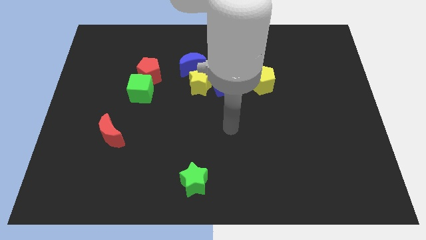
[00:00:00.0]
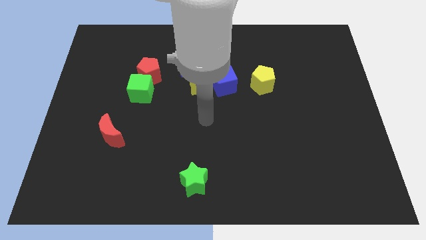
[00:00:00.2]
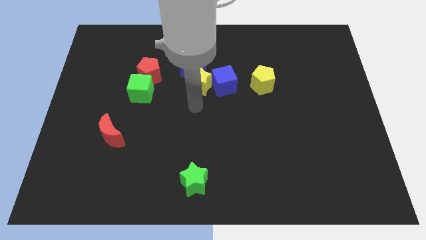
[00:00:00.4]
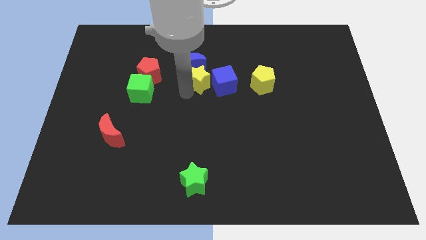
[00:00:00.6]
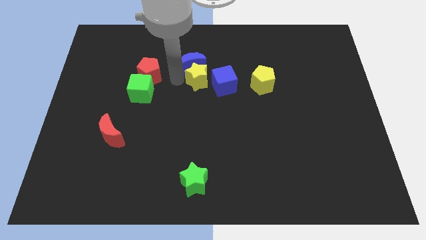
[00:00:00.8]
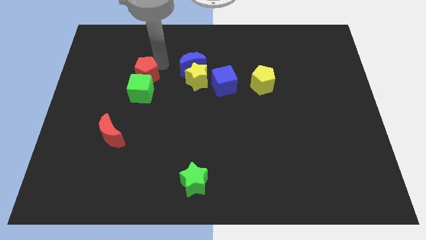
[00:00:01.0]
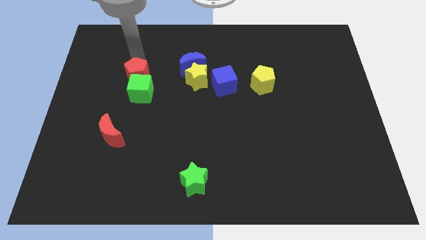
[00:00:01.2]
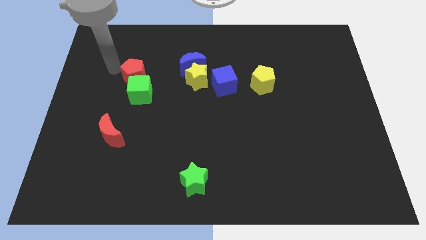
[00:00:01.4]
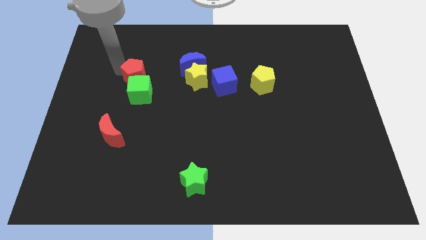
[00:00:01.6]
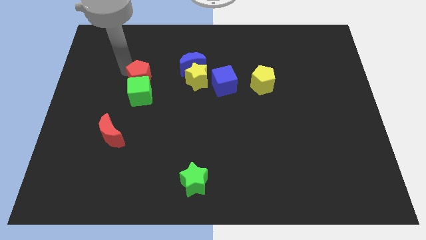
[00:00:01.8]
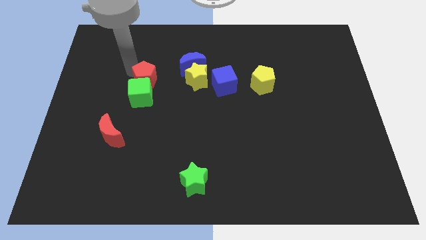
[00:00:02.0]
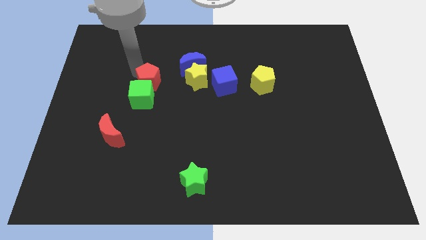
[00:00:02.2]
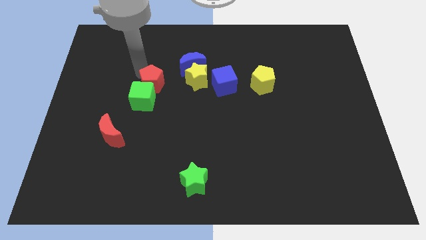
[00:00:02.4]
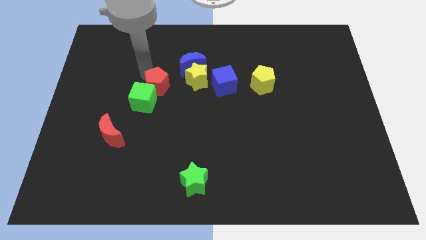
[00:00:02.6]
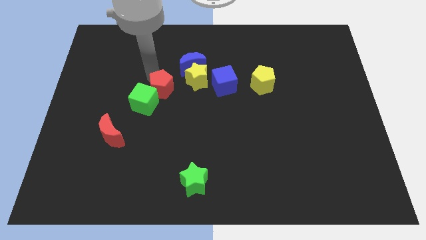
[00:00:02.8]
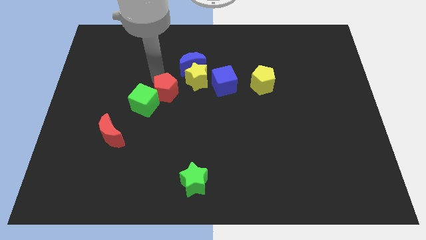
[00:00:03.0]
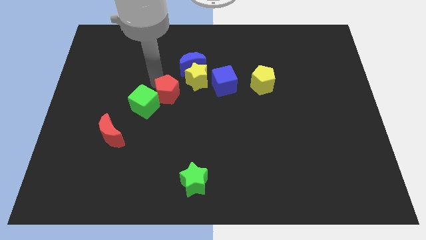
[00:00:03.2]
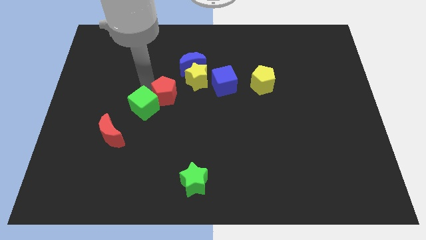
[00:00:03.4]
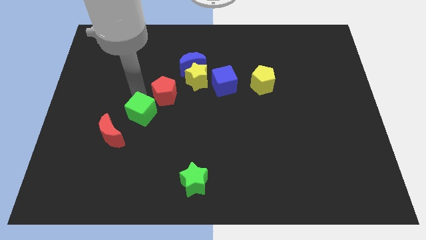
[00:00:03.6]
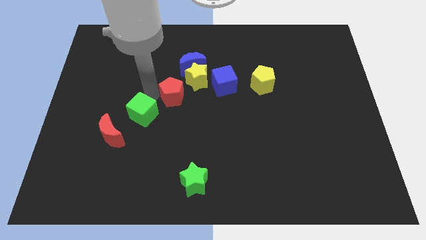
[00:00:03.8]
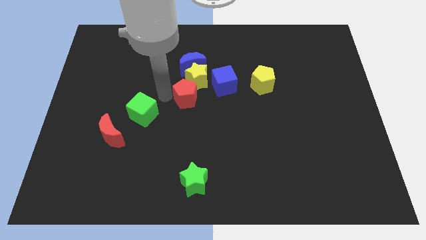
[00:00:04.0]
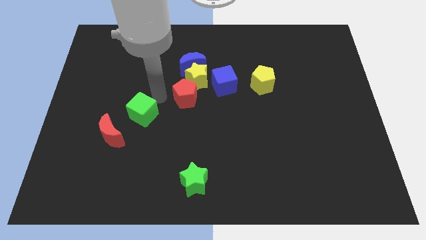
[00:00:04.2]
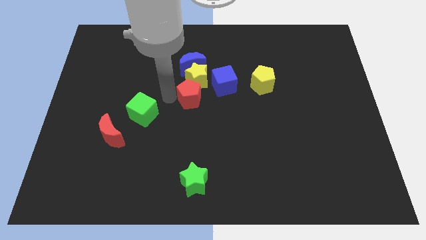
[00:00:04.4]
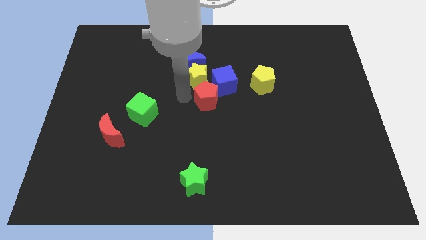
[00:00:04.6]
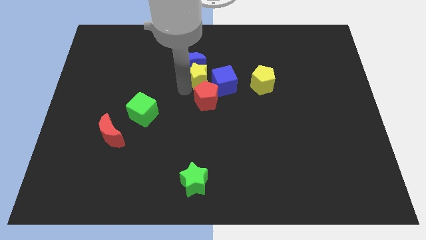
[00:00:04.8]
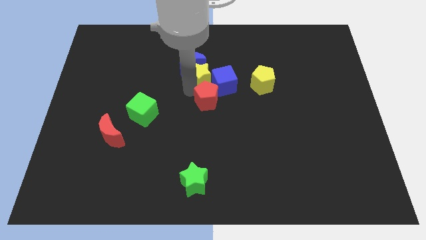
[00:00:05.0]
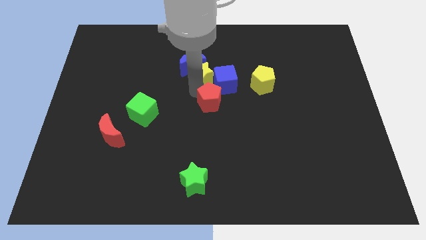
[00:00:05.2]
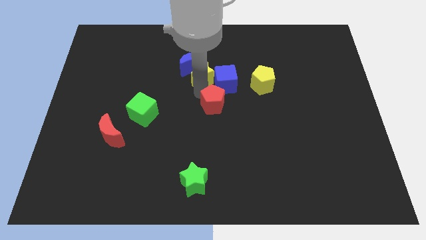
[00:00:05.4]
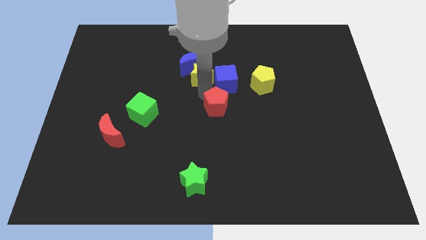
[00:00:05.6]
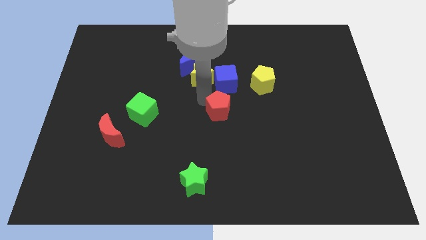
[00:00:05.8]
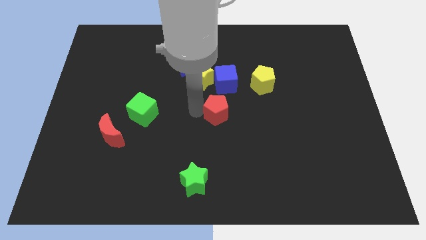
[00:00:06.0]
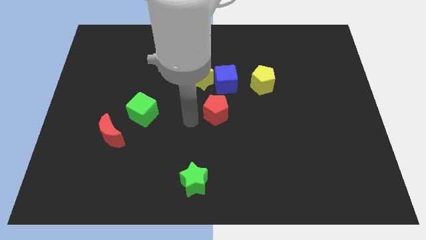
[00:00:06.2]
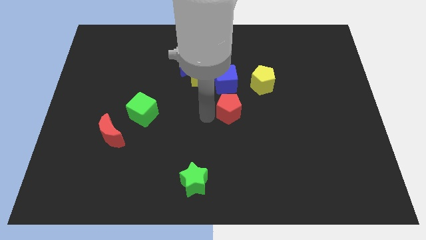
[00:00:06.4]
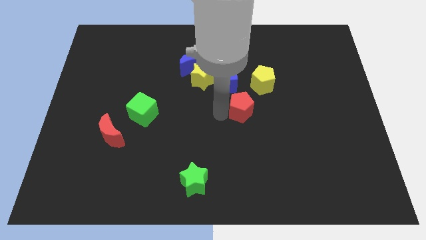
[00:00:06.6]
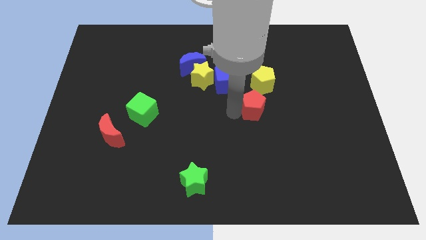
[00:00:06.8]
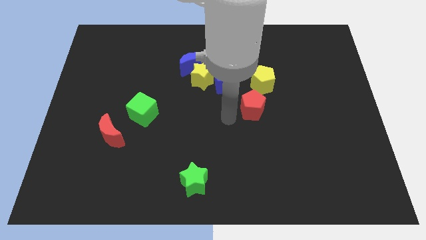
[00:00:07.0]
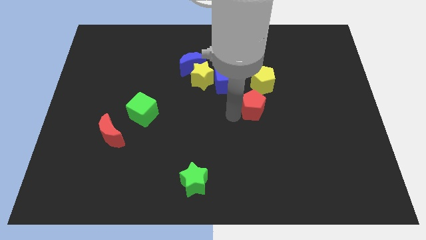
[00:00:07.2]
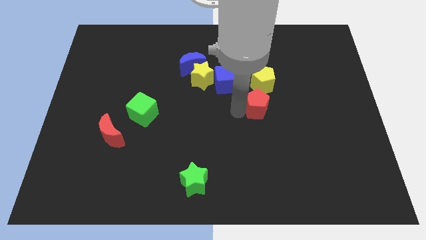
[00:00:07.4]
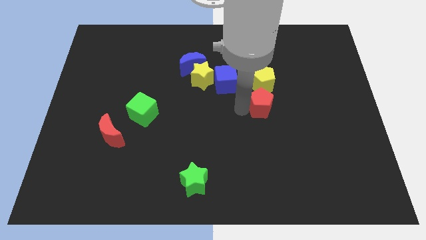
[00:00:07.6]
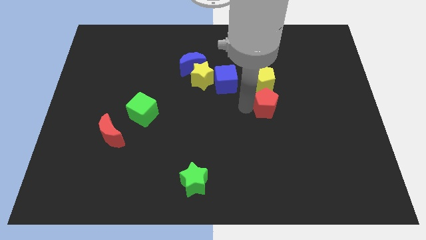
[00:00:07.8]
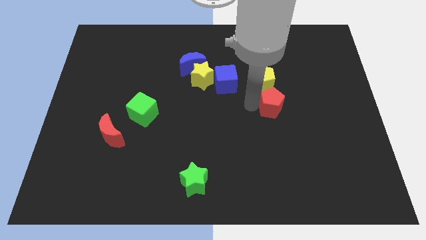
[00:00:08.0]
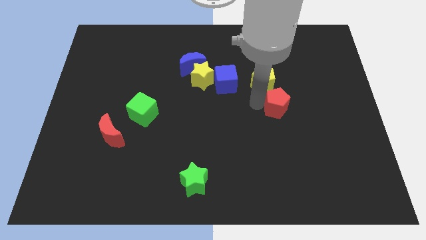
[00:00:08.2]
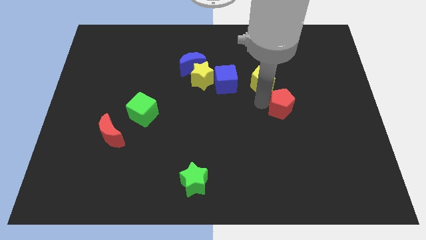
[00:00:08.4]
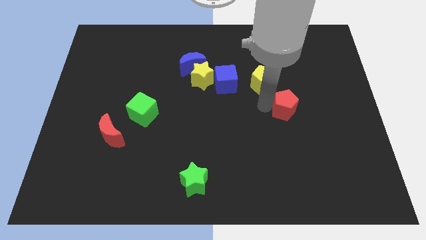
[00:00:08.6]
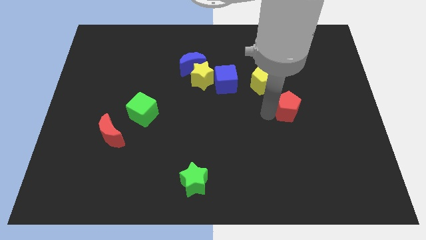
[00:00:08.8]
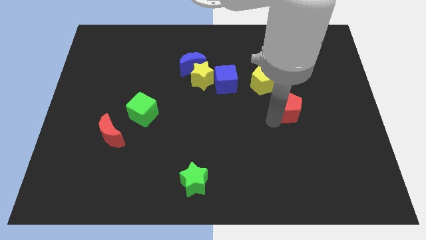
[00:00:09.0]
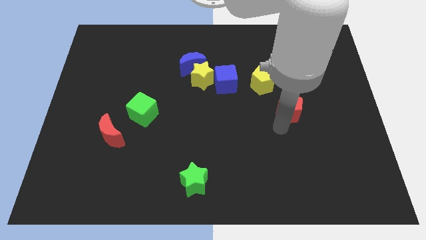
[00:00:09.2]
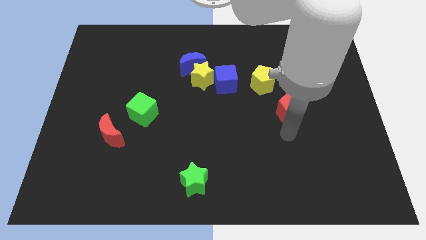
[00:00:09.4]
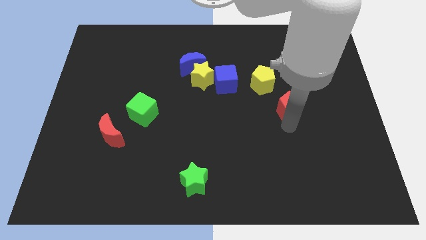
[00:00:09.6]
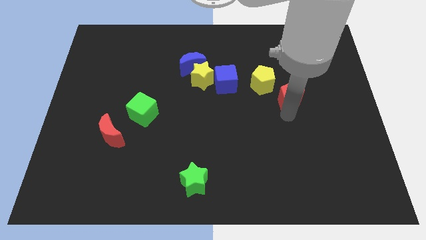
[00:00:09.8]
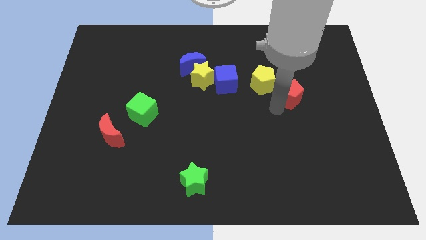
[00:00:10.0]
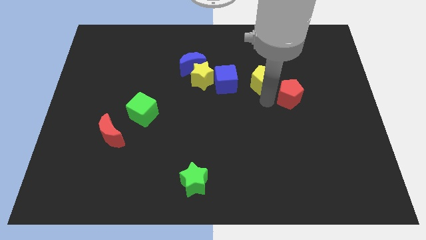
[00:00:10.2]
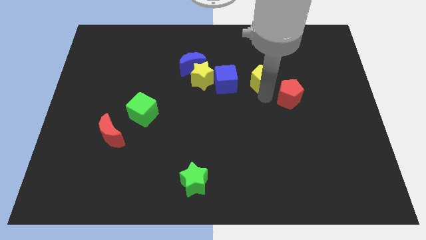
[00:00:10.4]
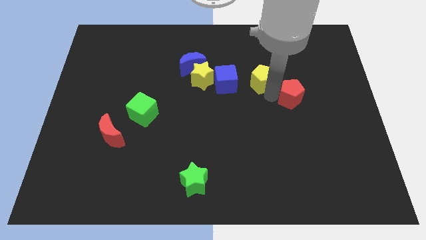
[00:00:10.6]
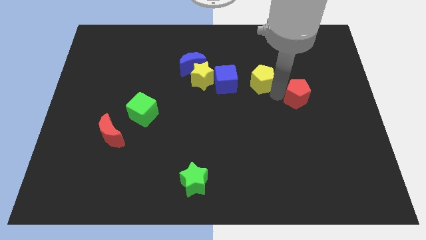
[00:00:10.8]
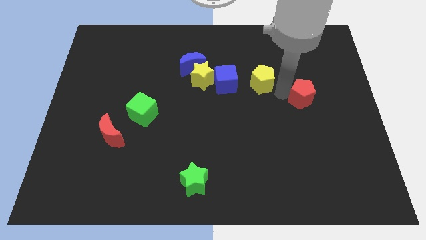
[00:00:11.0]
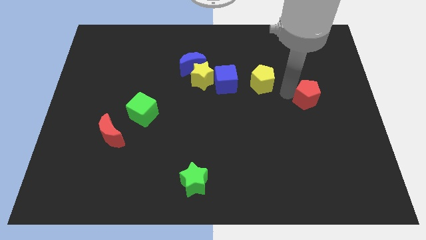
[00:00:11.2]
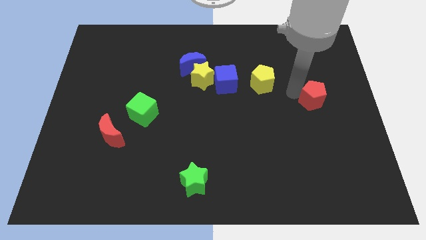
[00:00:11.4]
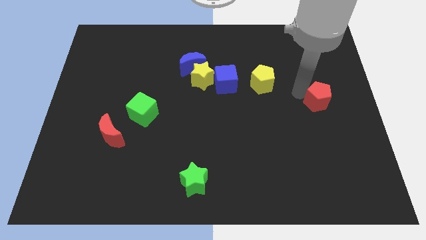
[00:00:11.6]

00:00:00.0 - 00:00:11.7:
push the red pentagon to the center right

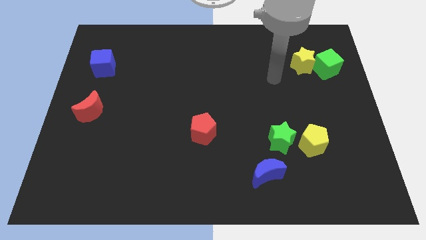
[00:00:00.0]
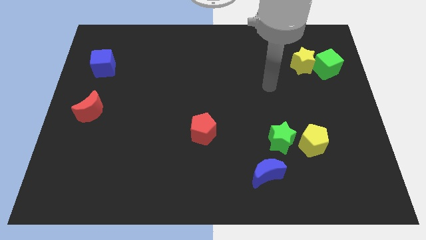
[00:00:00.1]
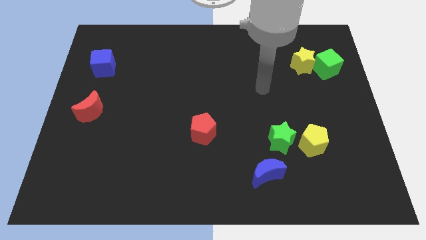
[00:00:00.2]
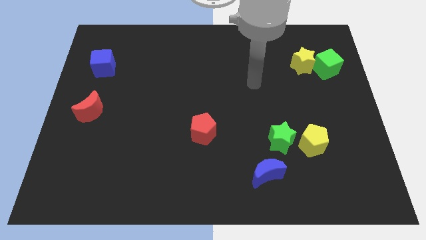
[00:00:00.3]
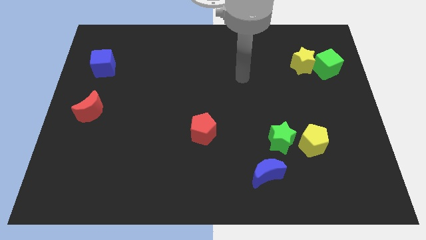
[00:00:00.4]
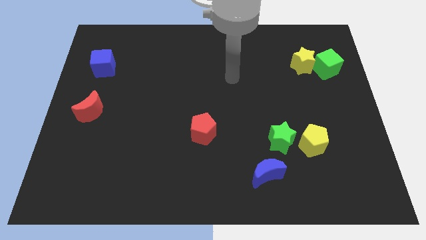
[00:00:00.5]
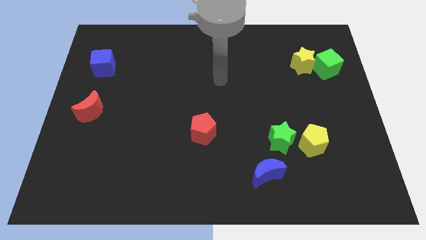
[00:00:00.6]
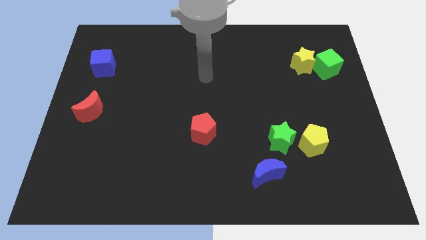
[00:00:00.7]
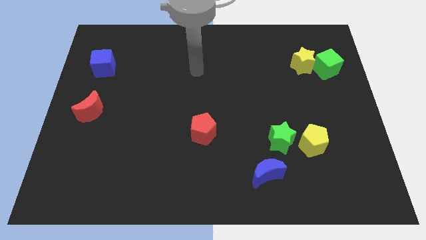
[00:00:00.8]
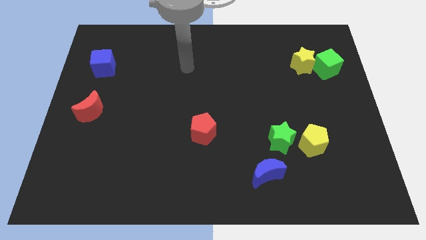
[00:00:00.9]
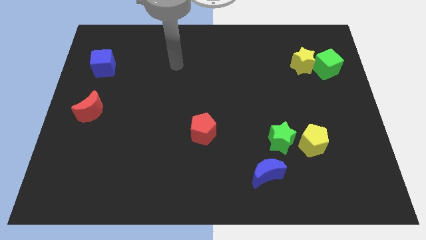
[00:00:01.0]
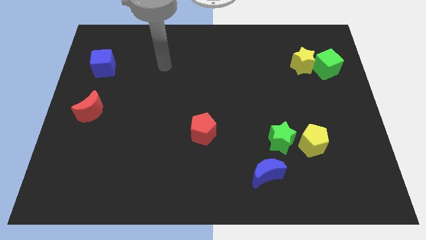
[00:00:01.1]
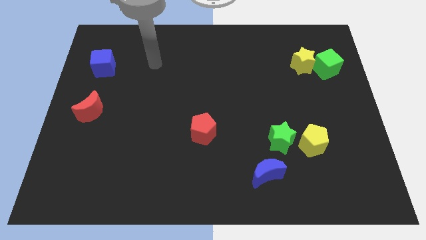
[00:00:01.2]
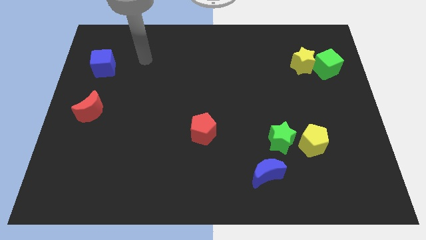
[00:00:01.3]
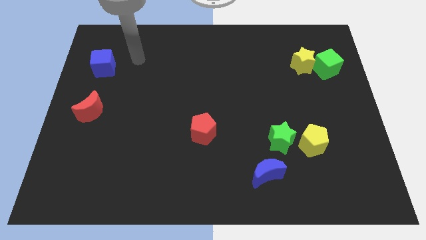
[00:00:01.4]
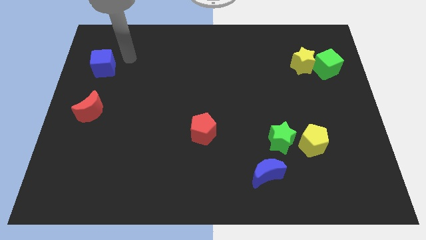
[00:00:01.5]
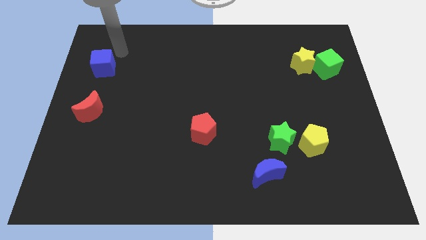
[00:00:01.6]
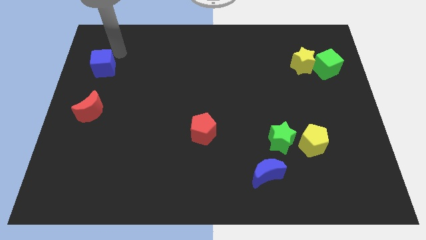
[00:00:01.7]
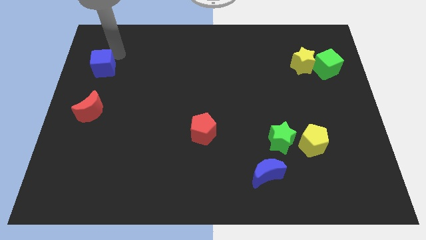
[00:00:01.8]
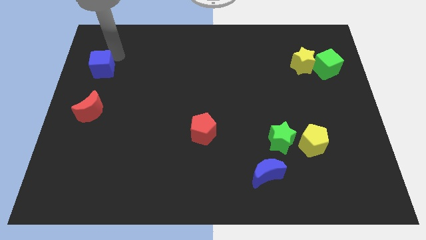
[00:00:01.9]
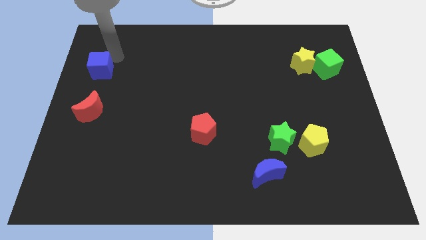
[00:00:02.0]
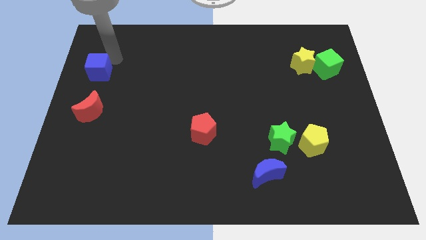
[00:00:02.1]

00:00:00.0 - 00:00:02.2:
push the blue cube to the left side
